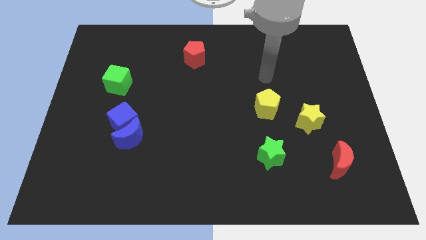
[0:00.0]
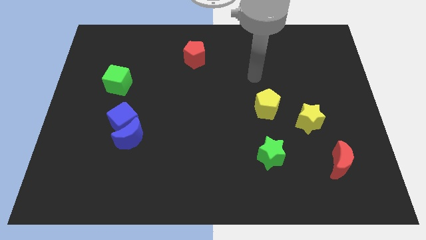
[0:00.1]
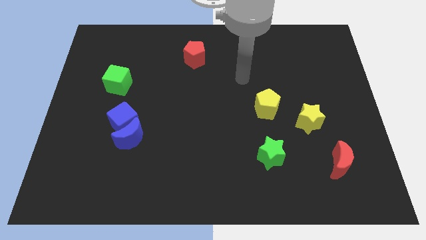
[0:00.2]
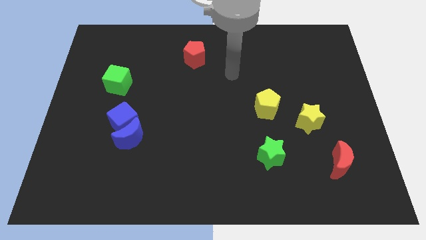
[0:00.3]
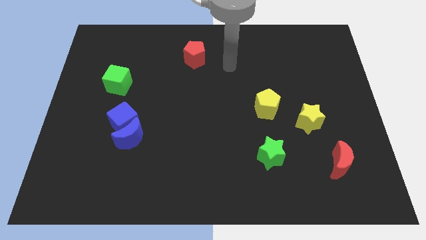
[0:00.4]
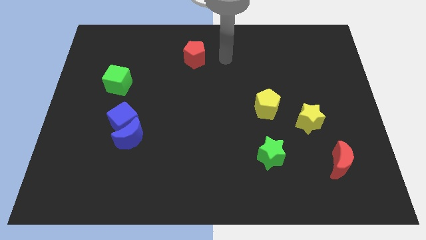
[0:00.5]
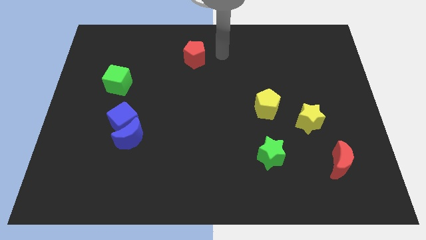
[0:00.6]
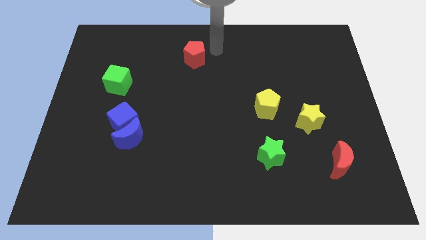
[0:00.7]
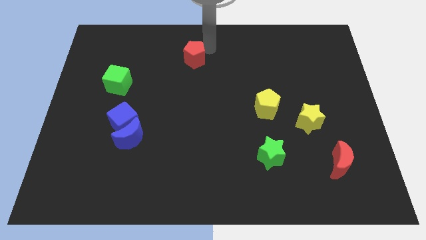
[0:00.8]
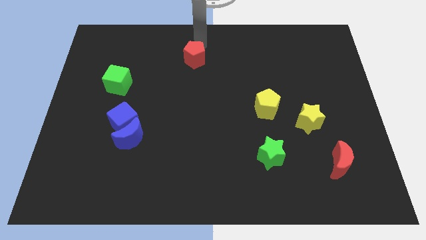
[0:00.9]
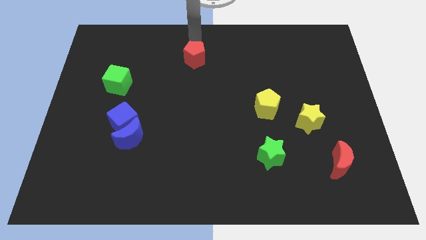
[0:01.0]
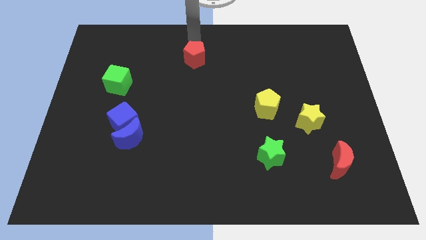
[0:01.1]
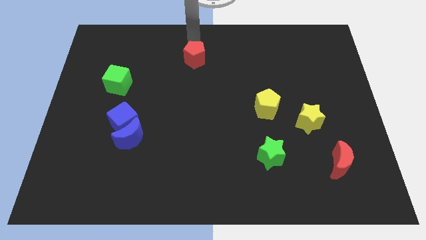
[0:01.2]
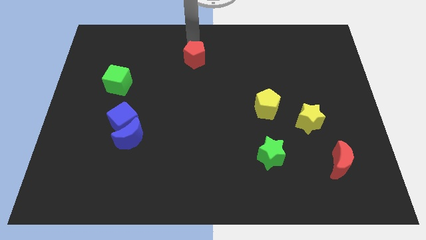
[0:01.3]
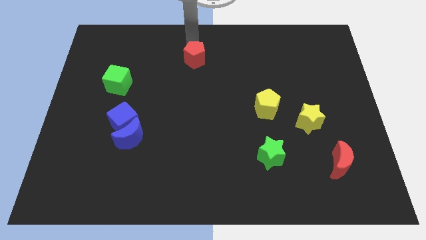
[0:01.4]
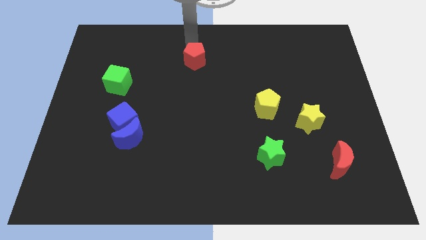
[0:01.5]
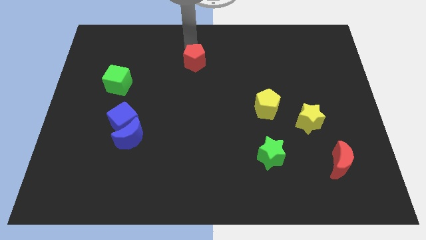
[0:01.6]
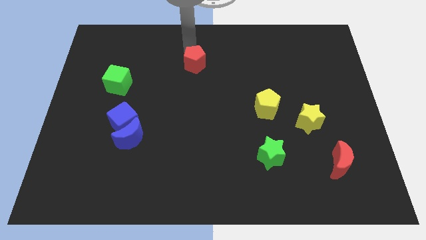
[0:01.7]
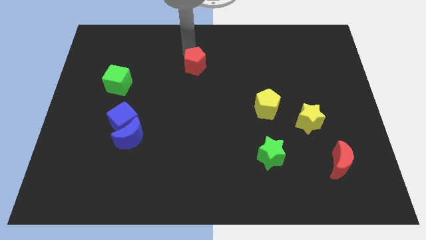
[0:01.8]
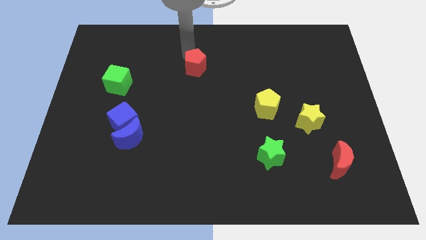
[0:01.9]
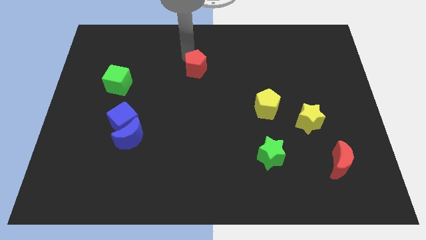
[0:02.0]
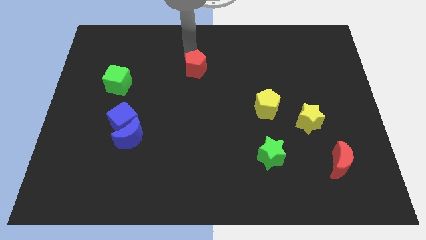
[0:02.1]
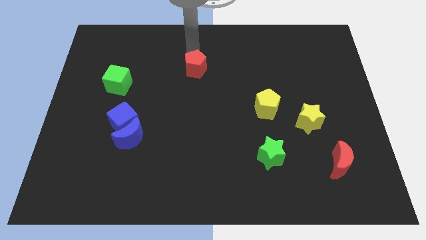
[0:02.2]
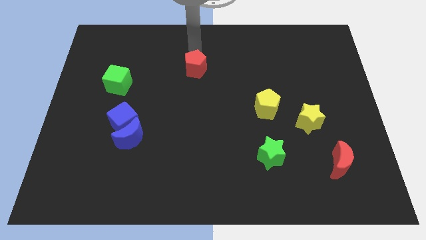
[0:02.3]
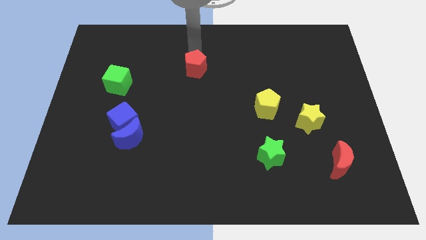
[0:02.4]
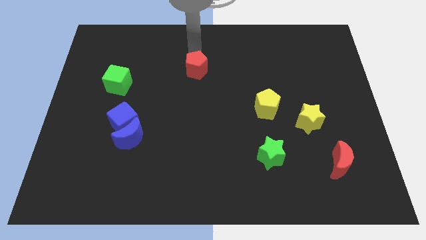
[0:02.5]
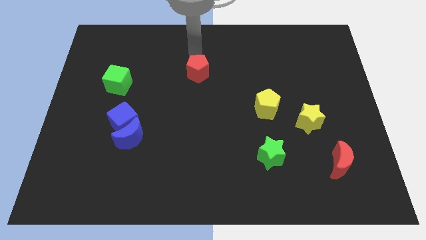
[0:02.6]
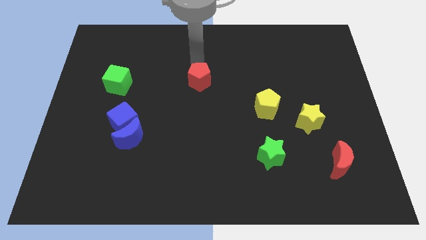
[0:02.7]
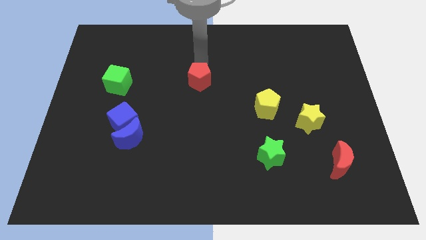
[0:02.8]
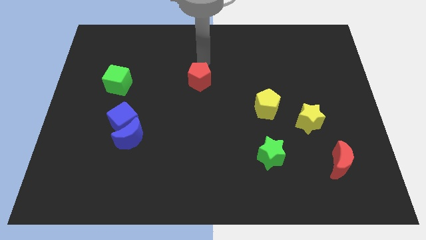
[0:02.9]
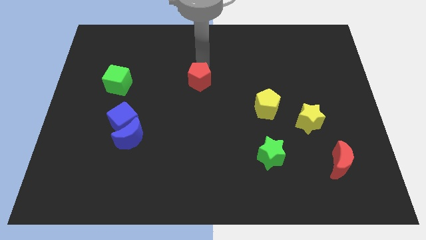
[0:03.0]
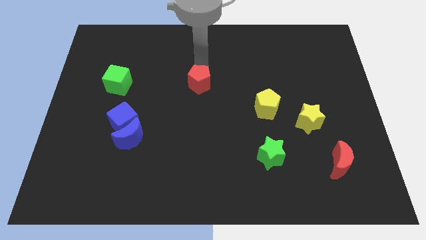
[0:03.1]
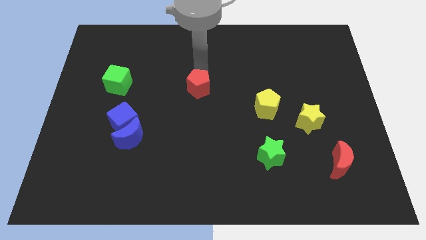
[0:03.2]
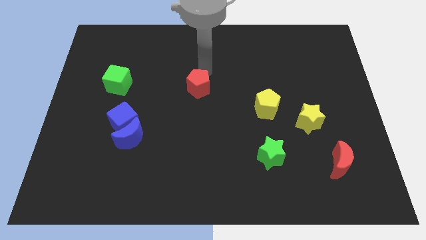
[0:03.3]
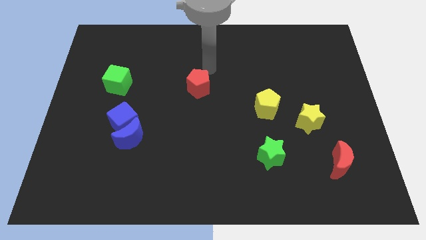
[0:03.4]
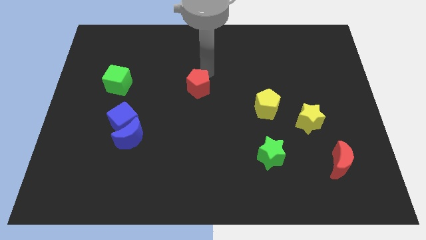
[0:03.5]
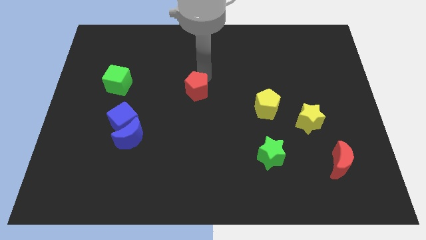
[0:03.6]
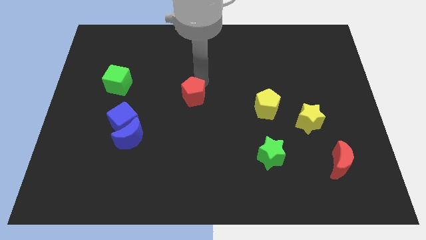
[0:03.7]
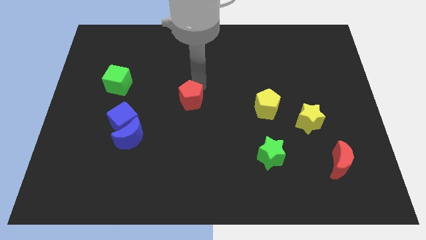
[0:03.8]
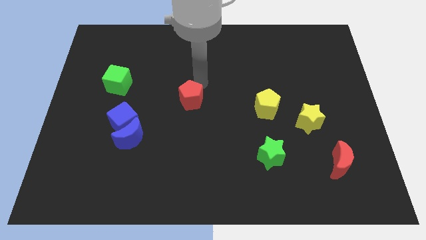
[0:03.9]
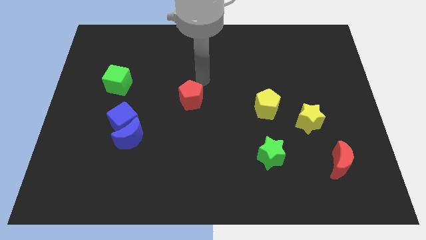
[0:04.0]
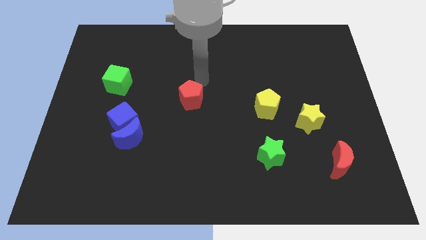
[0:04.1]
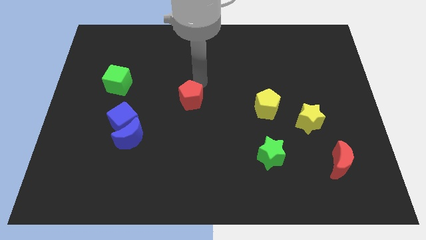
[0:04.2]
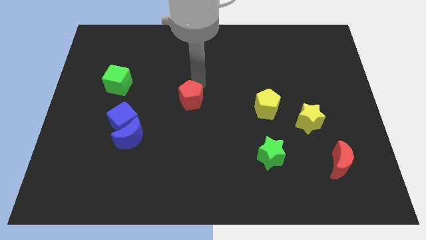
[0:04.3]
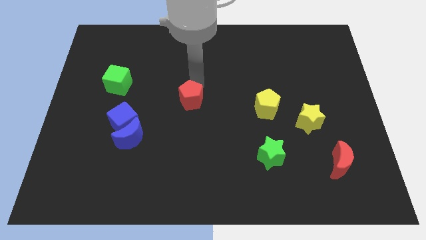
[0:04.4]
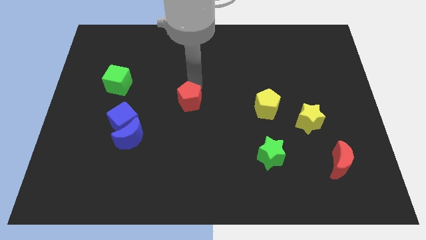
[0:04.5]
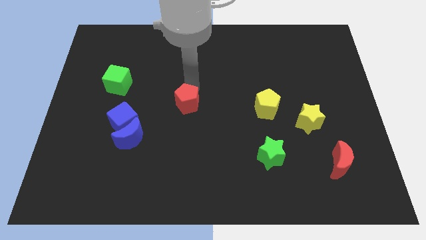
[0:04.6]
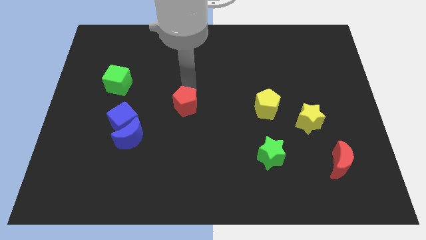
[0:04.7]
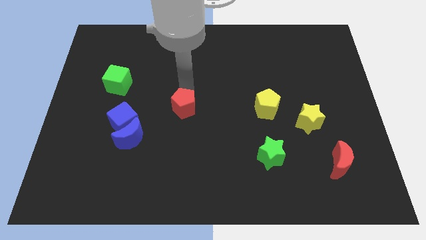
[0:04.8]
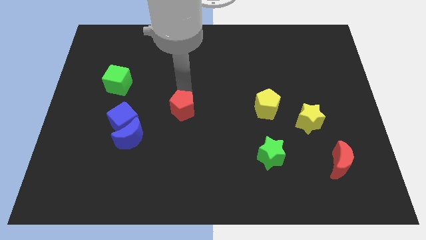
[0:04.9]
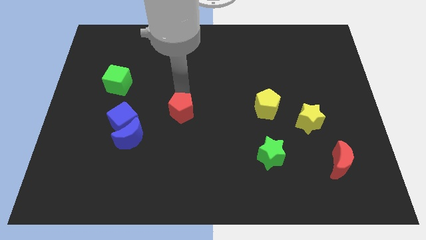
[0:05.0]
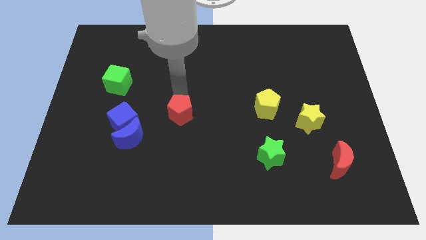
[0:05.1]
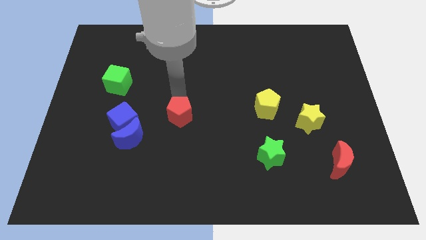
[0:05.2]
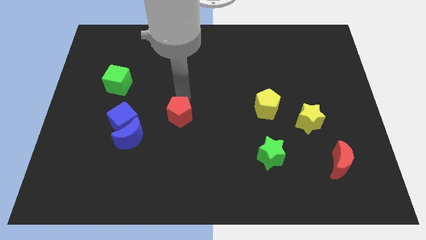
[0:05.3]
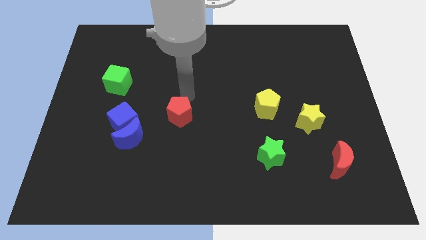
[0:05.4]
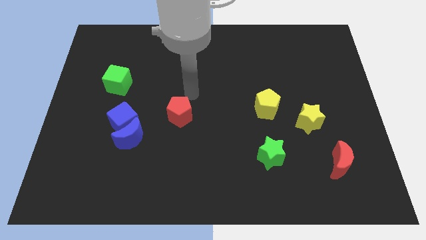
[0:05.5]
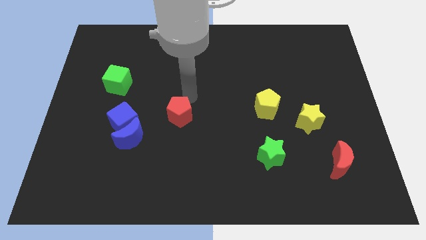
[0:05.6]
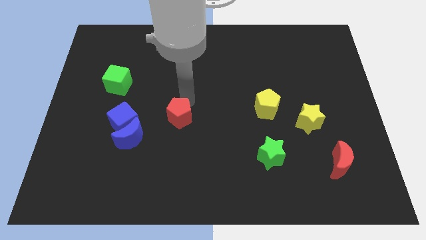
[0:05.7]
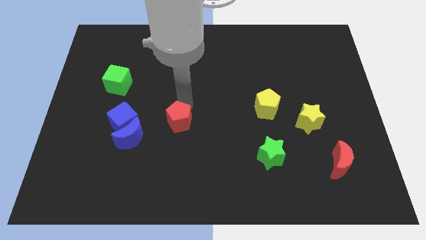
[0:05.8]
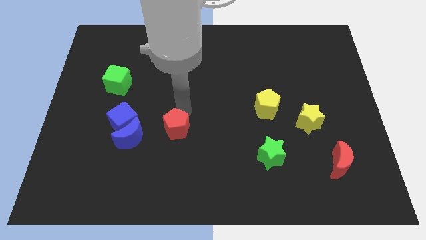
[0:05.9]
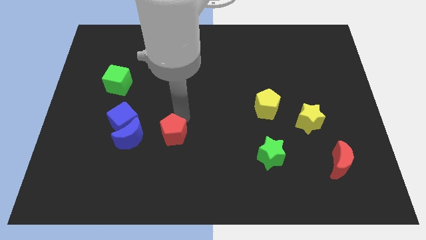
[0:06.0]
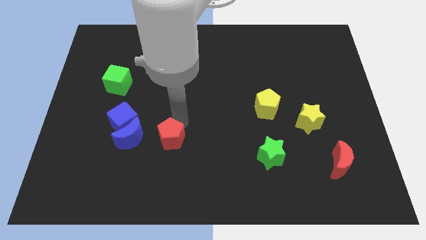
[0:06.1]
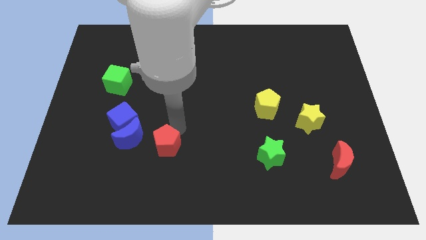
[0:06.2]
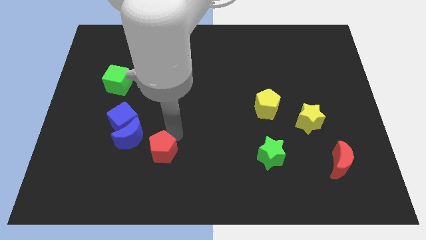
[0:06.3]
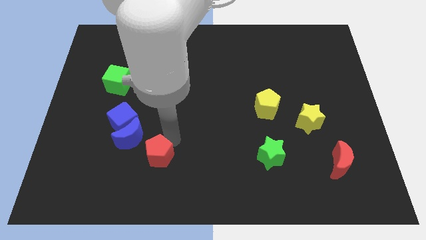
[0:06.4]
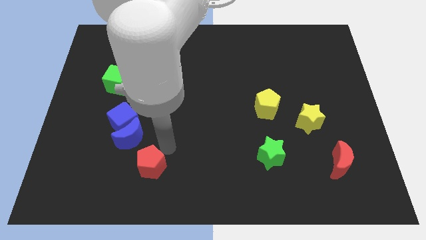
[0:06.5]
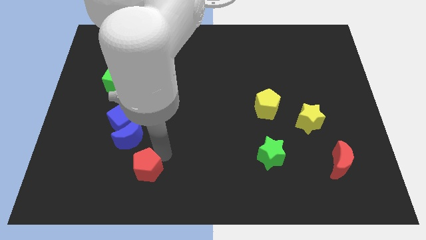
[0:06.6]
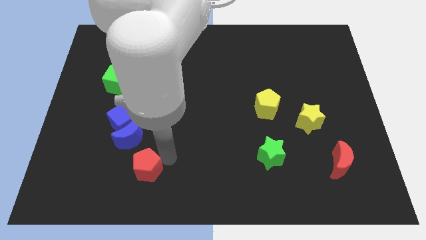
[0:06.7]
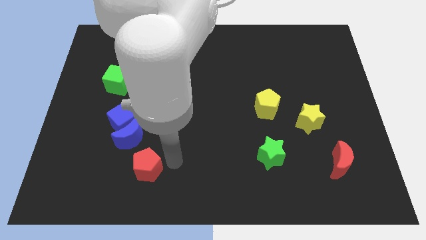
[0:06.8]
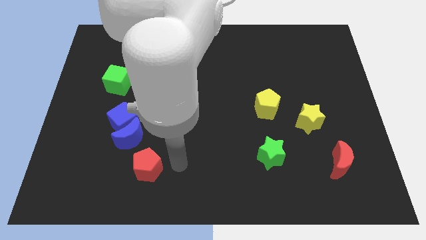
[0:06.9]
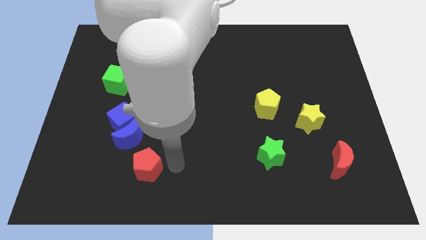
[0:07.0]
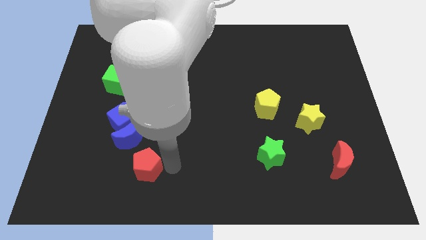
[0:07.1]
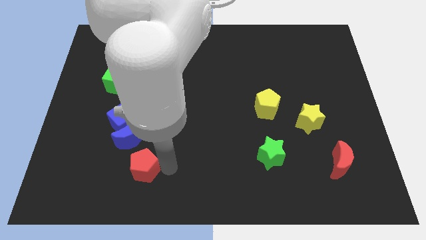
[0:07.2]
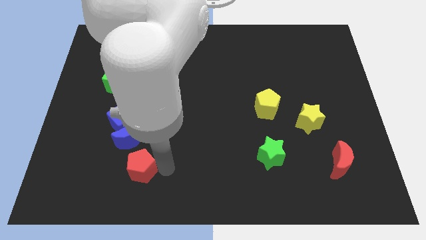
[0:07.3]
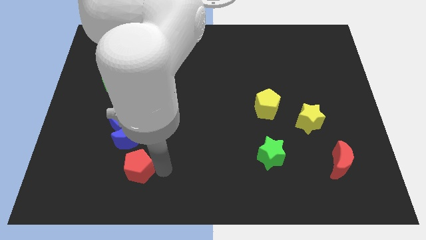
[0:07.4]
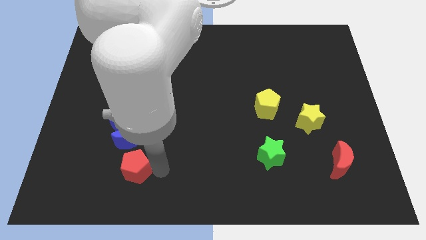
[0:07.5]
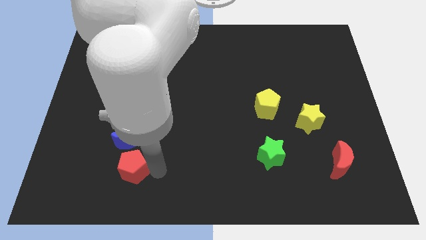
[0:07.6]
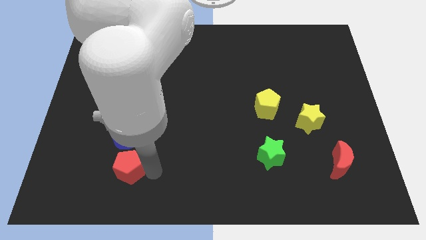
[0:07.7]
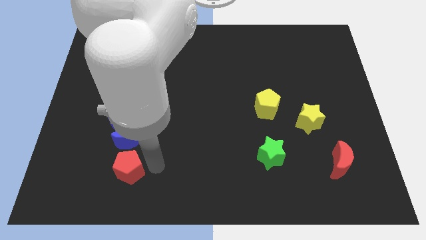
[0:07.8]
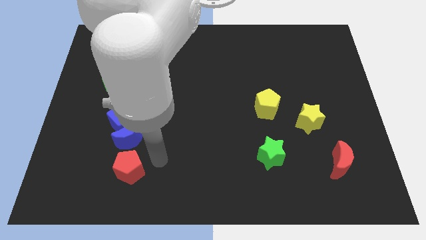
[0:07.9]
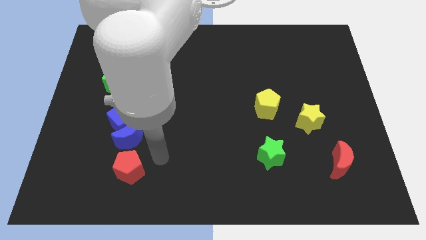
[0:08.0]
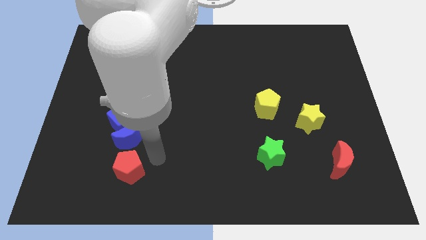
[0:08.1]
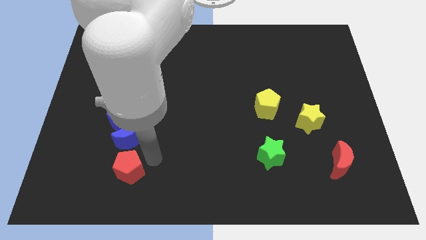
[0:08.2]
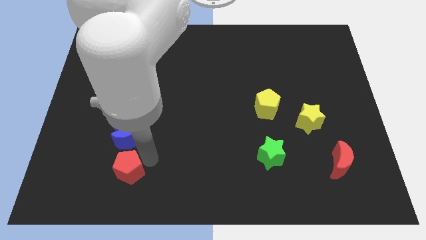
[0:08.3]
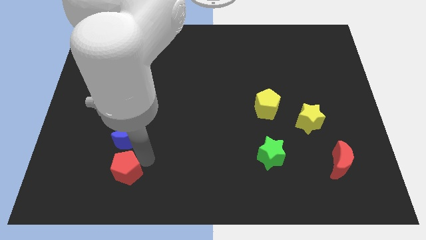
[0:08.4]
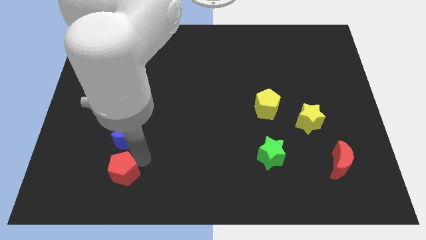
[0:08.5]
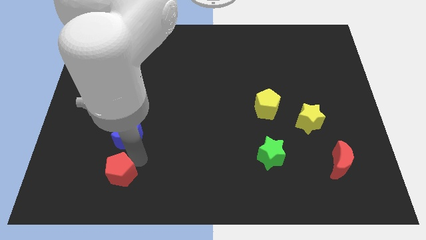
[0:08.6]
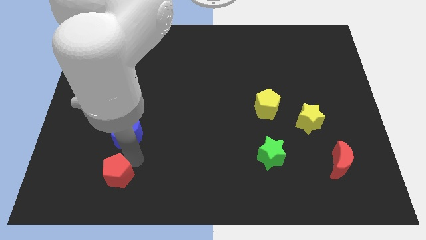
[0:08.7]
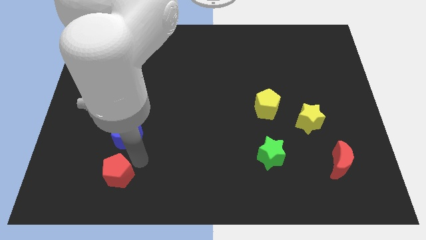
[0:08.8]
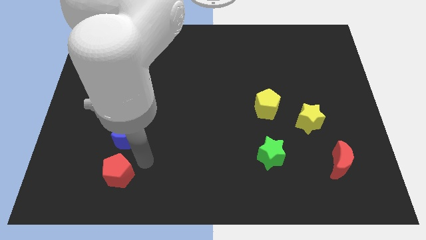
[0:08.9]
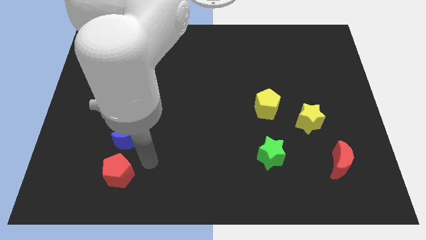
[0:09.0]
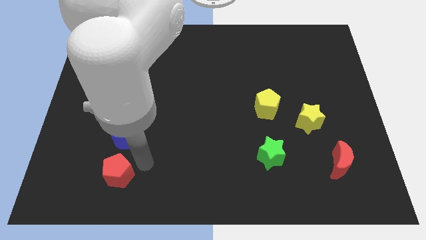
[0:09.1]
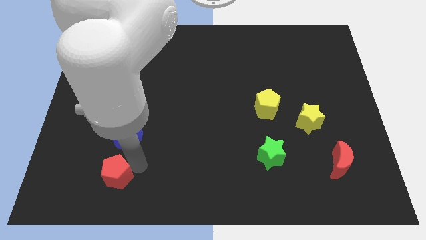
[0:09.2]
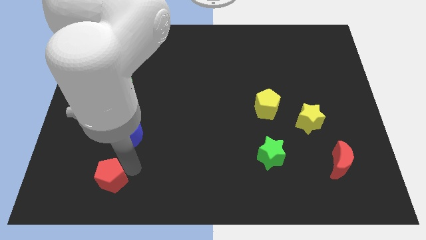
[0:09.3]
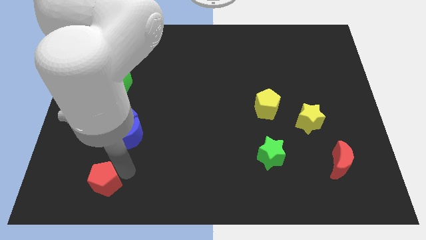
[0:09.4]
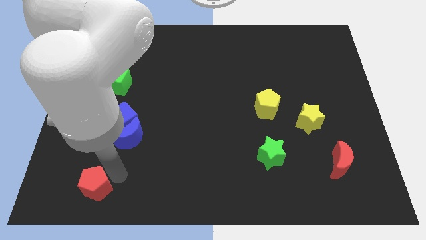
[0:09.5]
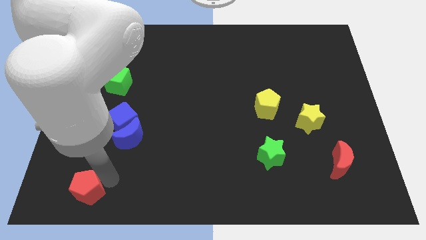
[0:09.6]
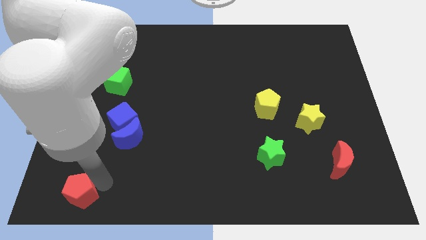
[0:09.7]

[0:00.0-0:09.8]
put the red pentagon to the bottom left of the board
